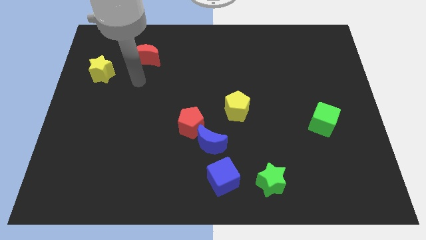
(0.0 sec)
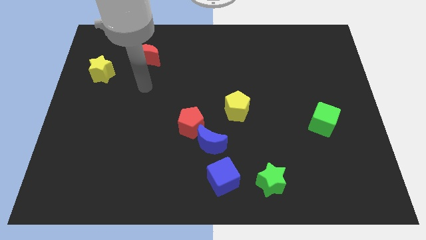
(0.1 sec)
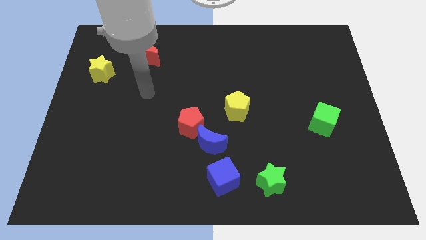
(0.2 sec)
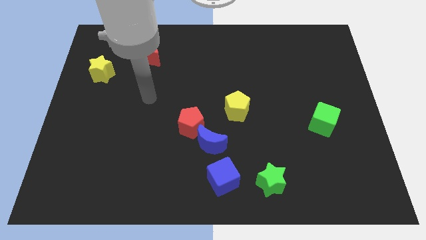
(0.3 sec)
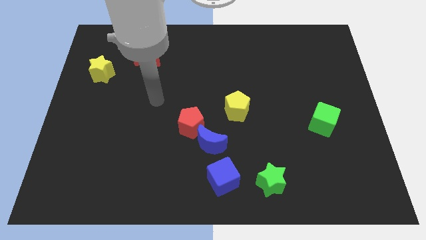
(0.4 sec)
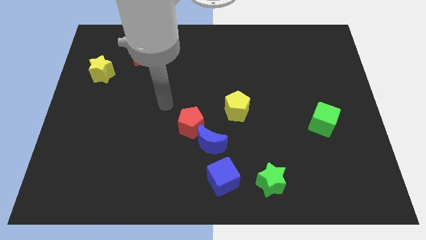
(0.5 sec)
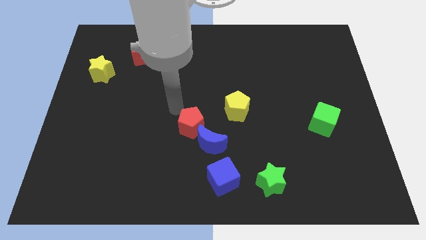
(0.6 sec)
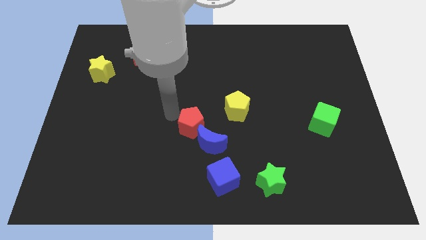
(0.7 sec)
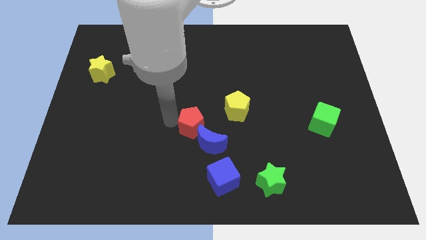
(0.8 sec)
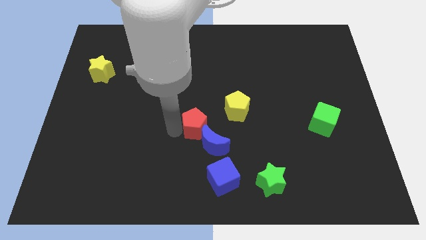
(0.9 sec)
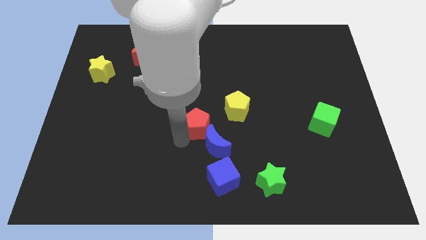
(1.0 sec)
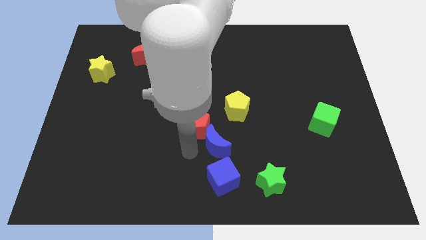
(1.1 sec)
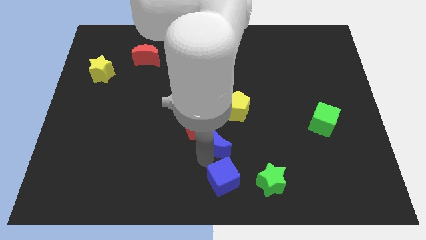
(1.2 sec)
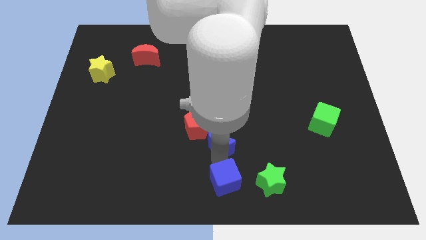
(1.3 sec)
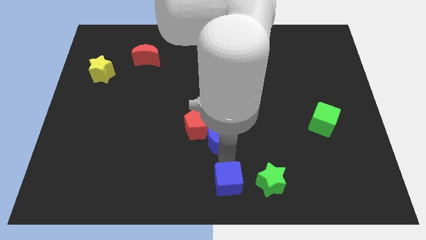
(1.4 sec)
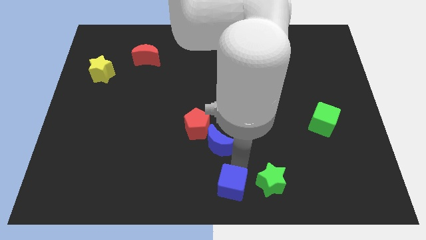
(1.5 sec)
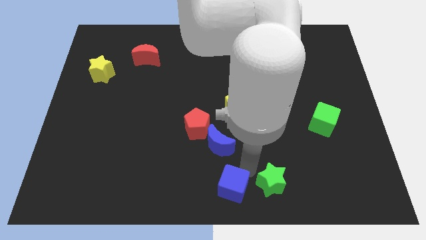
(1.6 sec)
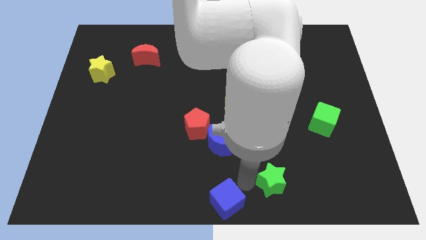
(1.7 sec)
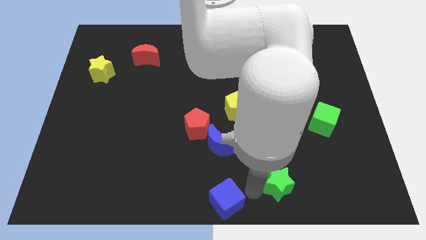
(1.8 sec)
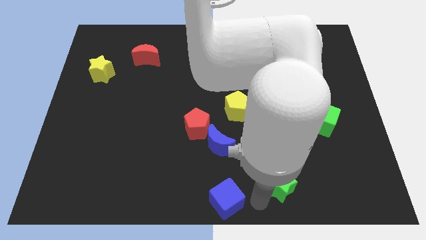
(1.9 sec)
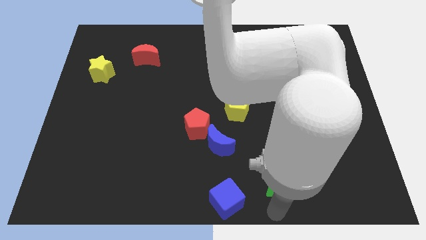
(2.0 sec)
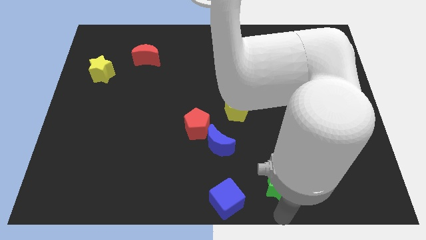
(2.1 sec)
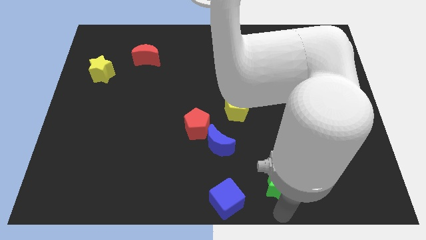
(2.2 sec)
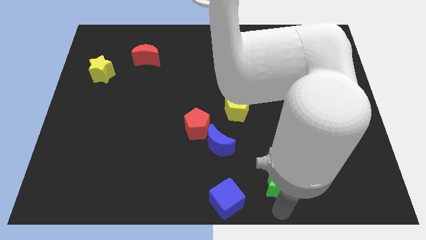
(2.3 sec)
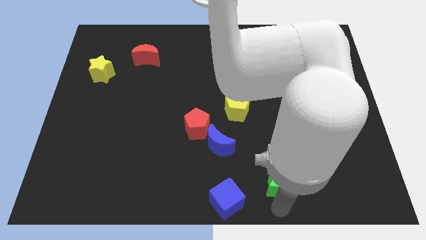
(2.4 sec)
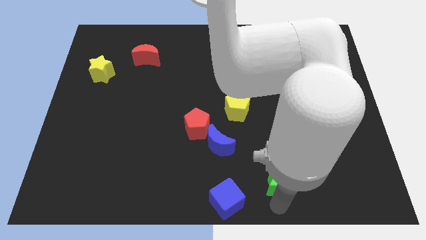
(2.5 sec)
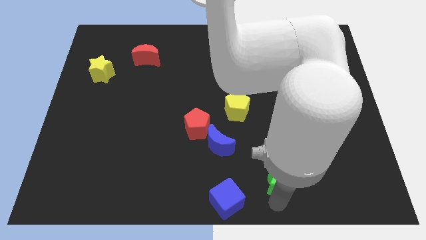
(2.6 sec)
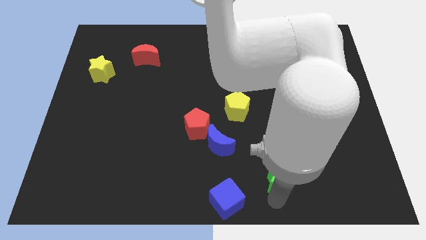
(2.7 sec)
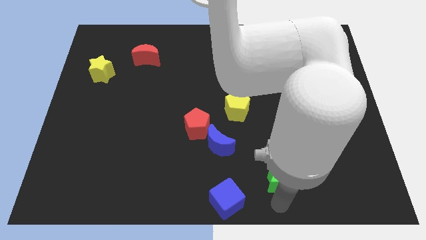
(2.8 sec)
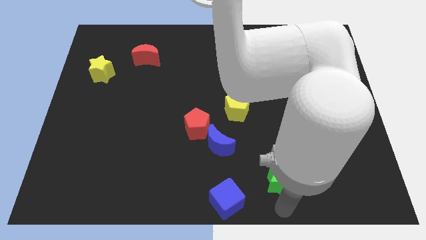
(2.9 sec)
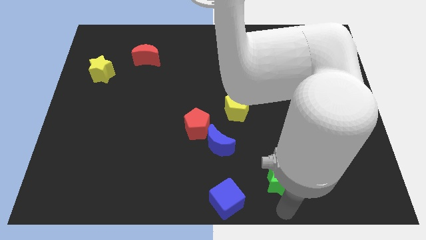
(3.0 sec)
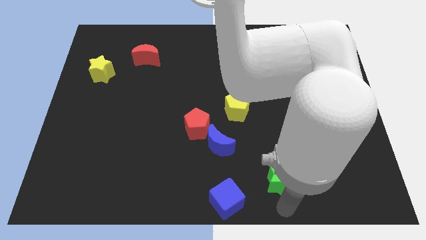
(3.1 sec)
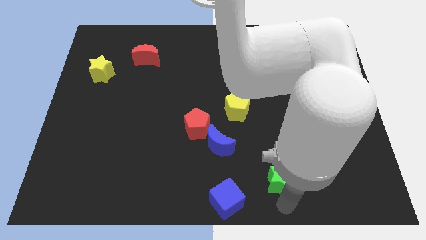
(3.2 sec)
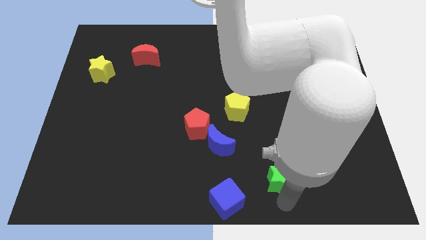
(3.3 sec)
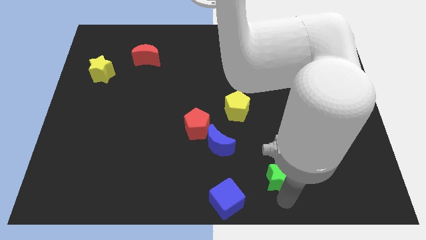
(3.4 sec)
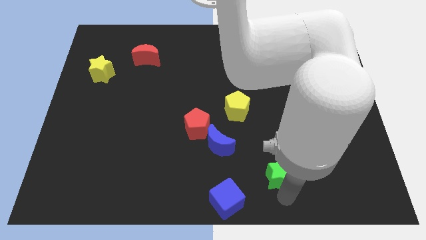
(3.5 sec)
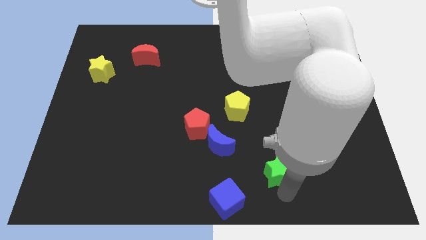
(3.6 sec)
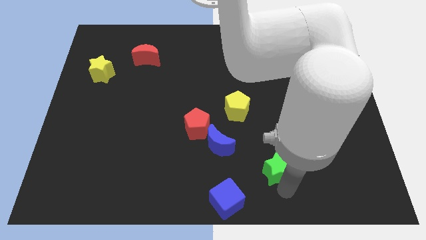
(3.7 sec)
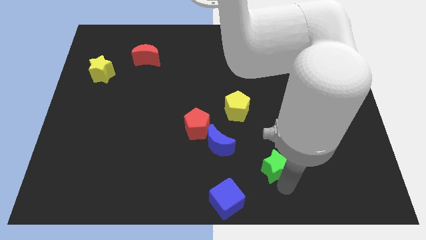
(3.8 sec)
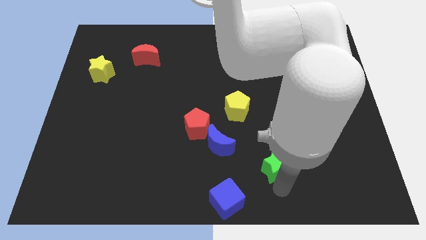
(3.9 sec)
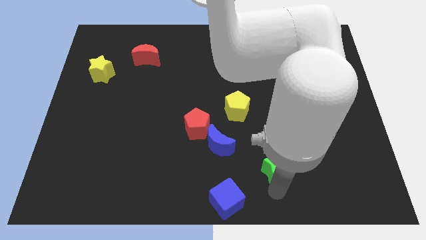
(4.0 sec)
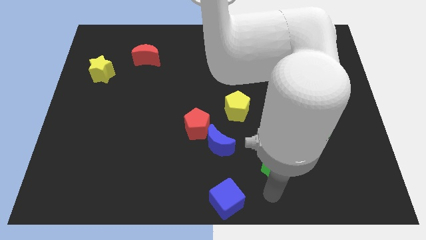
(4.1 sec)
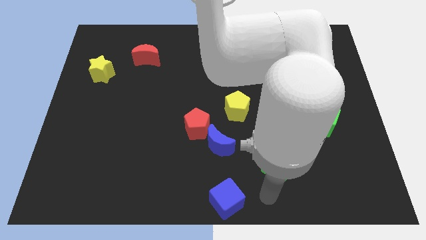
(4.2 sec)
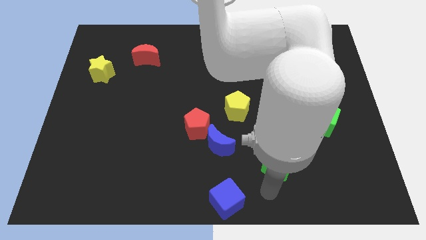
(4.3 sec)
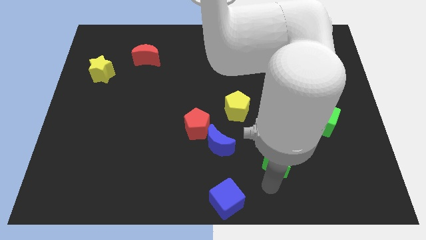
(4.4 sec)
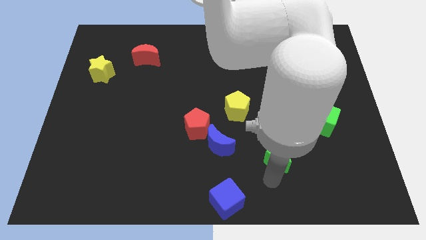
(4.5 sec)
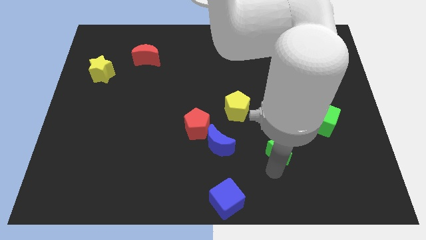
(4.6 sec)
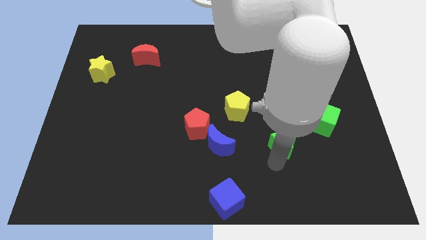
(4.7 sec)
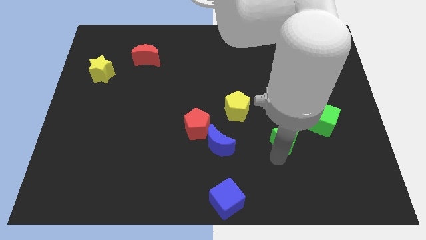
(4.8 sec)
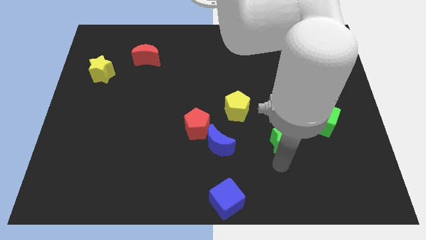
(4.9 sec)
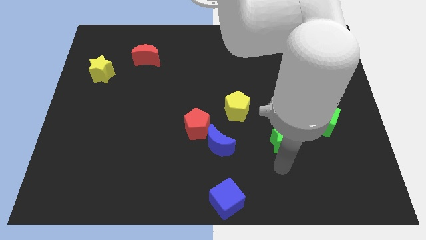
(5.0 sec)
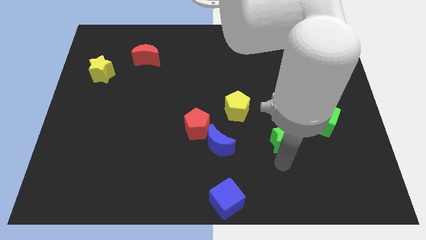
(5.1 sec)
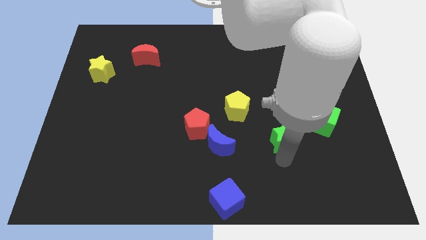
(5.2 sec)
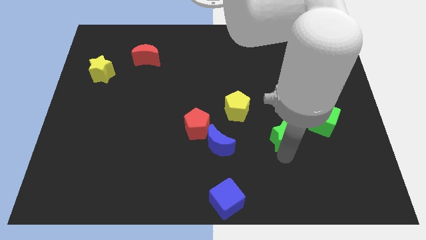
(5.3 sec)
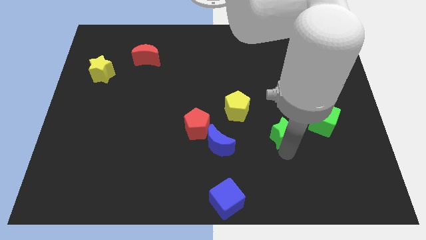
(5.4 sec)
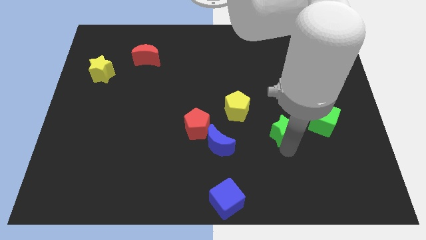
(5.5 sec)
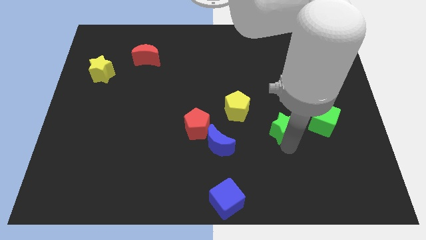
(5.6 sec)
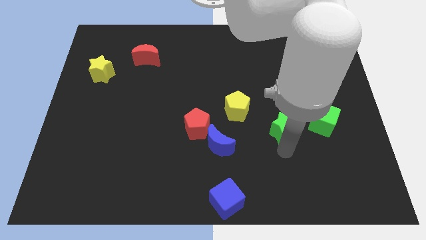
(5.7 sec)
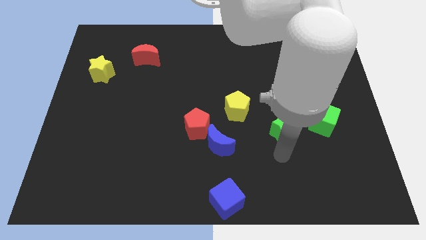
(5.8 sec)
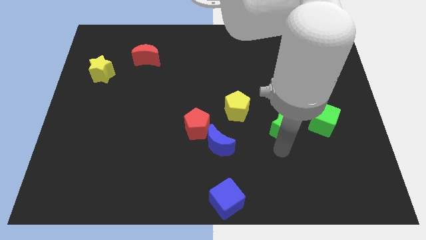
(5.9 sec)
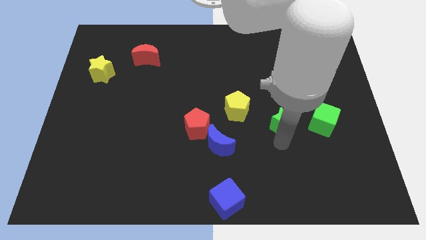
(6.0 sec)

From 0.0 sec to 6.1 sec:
push the green star right of the yellow pentagon

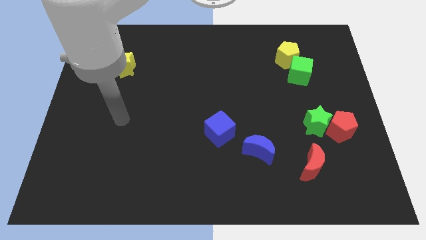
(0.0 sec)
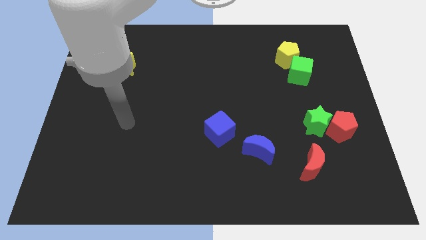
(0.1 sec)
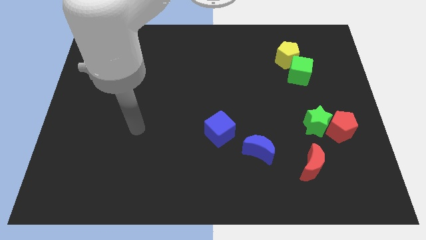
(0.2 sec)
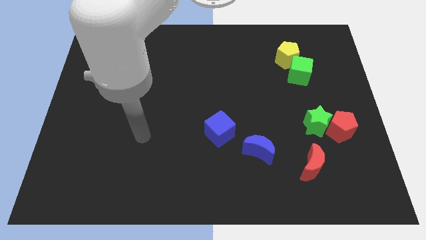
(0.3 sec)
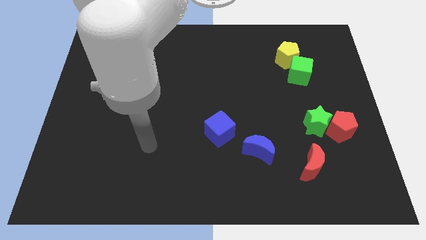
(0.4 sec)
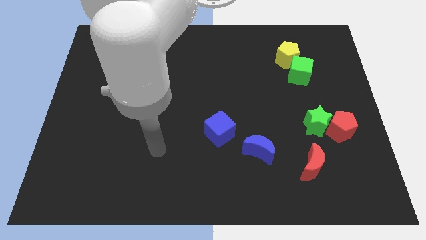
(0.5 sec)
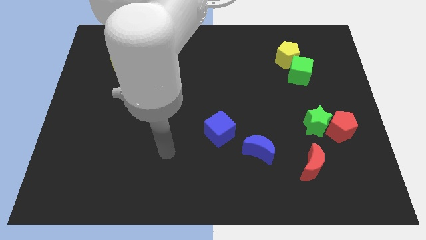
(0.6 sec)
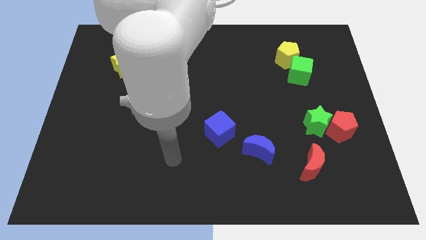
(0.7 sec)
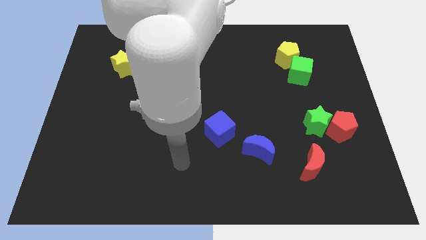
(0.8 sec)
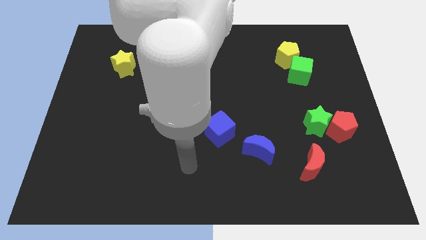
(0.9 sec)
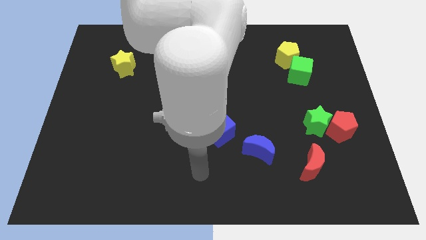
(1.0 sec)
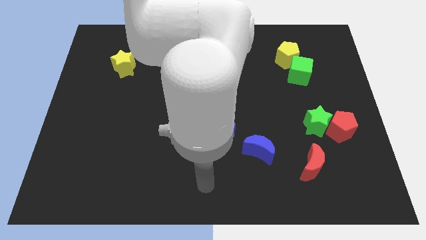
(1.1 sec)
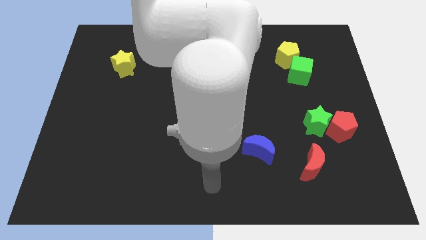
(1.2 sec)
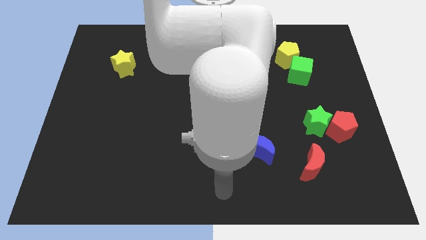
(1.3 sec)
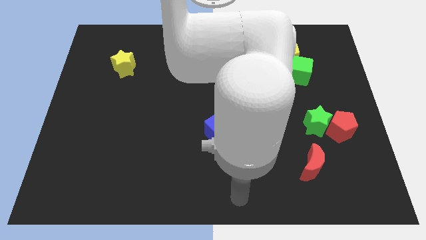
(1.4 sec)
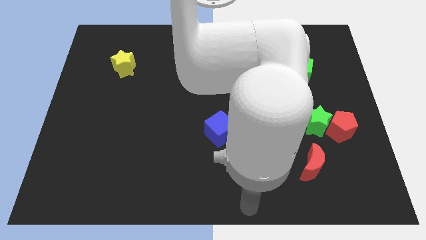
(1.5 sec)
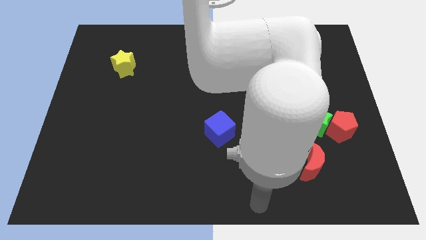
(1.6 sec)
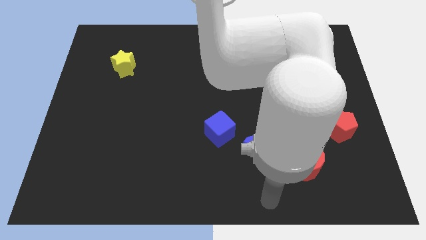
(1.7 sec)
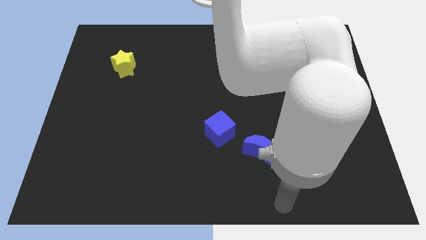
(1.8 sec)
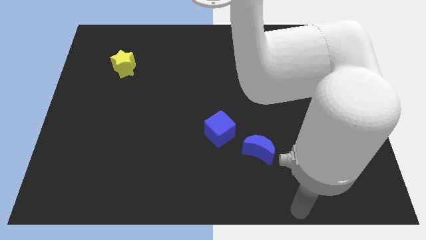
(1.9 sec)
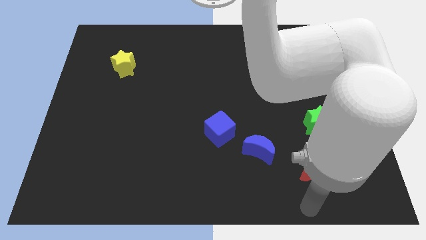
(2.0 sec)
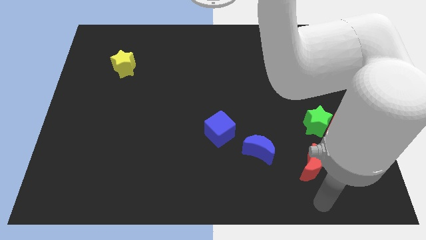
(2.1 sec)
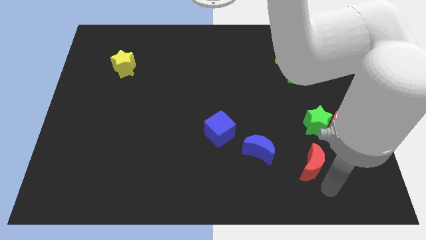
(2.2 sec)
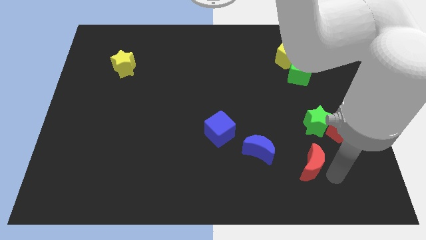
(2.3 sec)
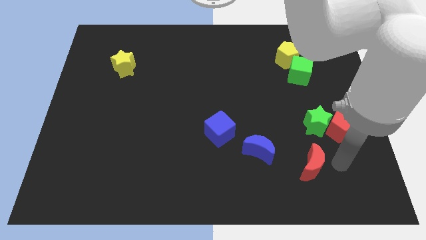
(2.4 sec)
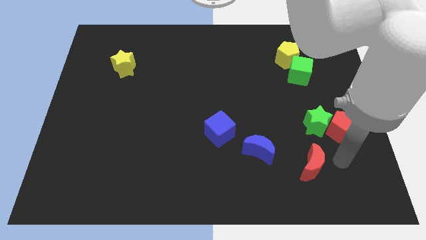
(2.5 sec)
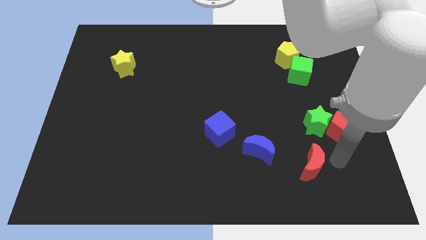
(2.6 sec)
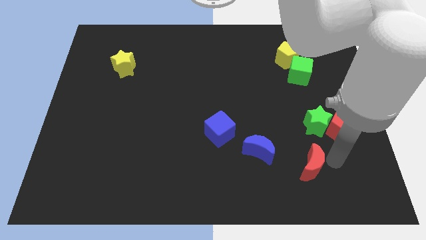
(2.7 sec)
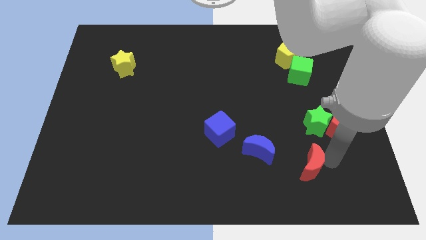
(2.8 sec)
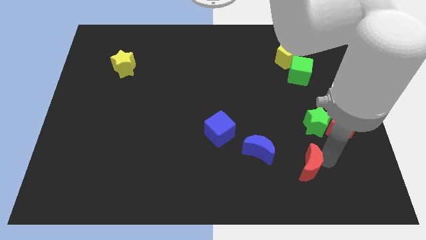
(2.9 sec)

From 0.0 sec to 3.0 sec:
put the red moon diagonally down and to the right of the blue moon
